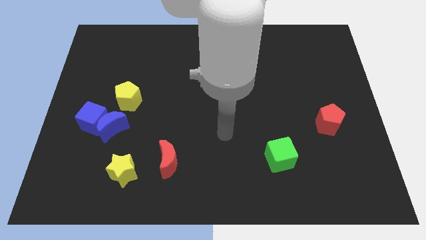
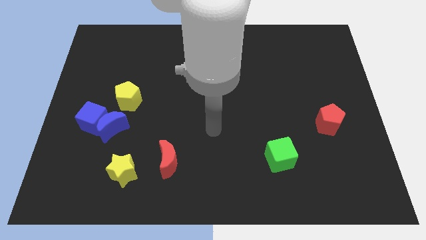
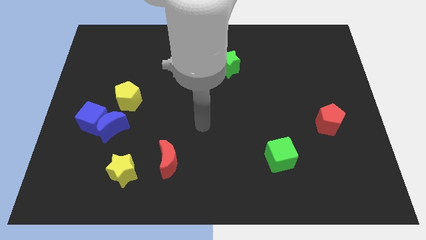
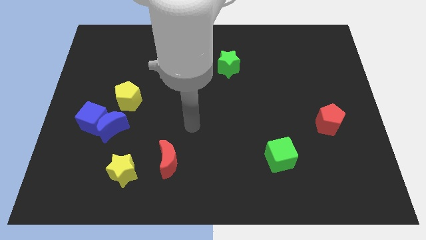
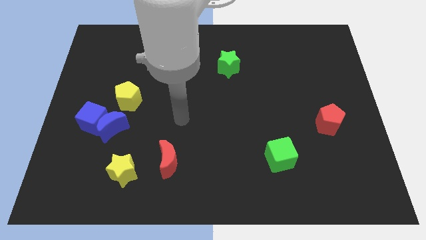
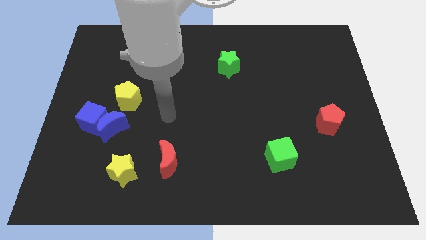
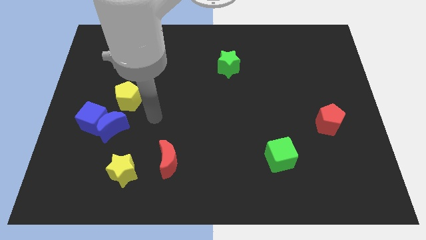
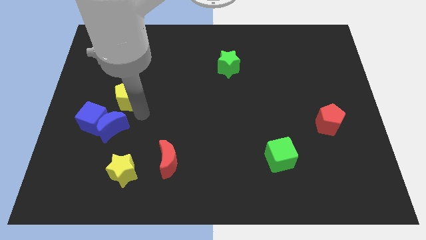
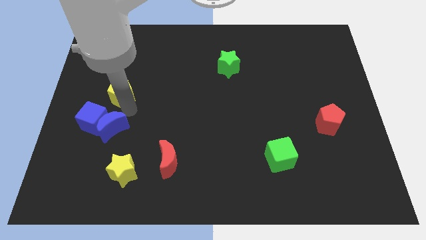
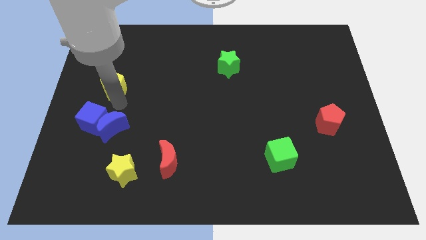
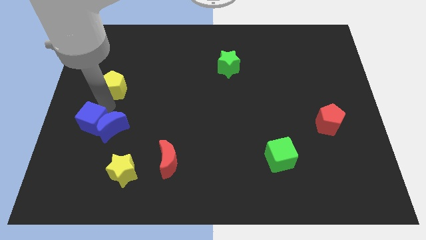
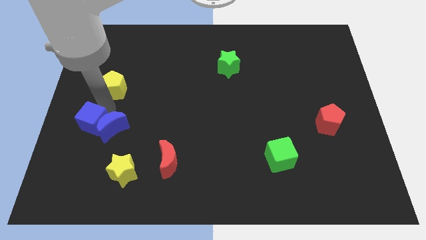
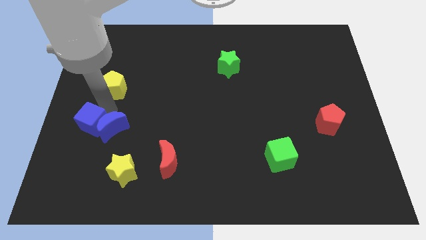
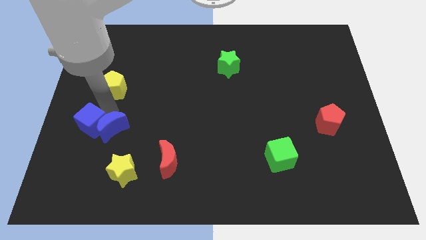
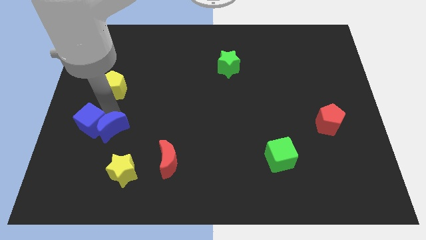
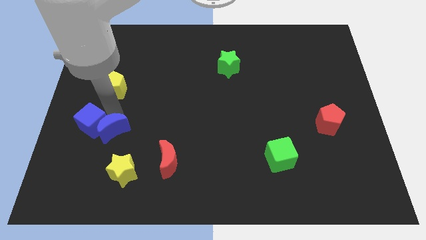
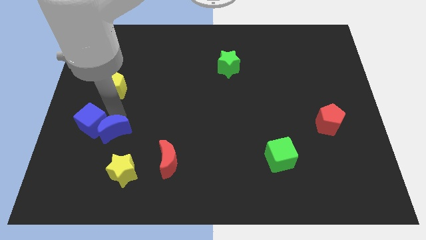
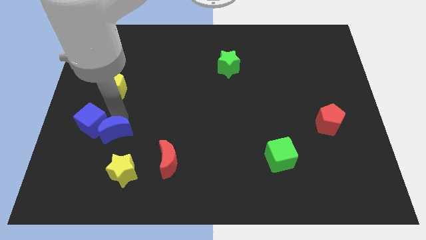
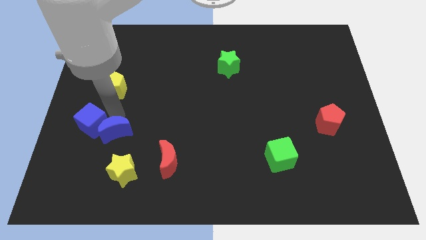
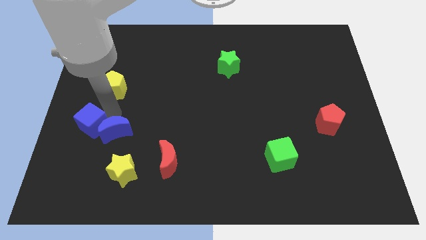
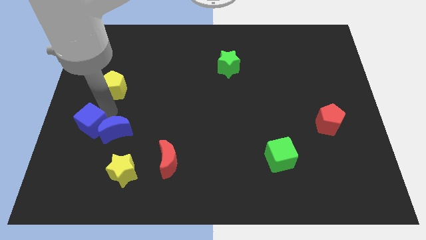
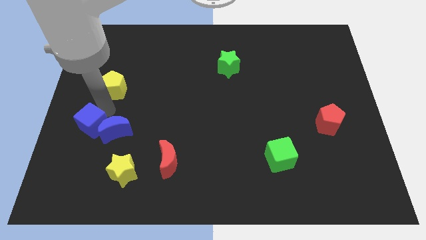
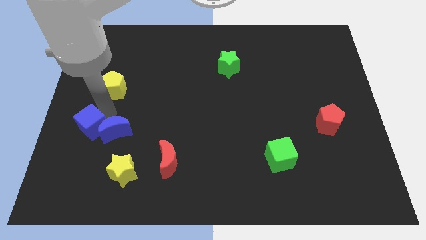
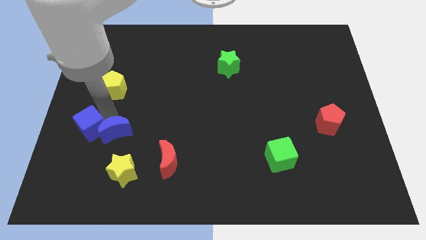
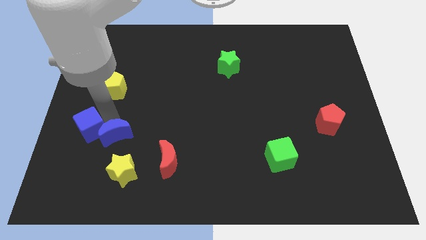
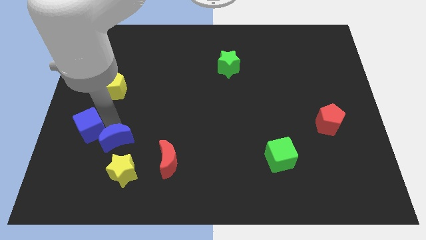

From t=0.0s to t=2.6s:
pull the blue moon apart from the blue cube and yellow pentagon

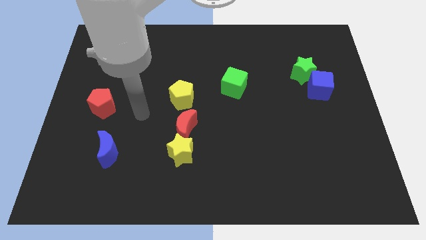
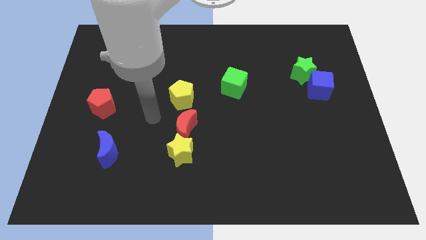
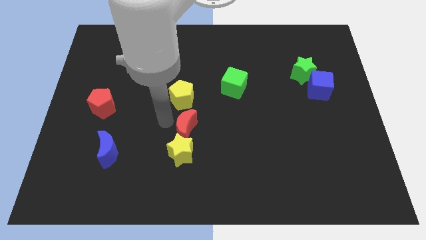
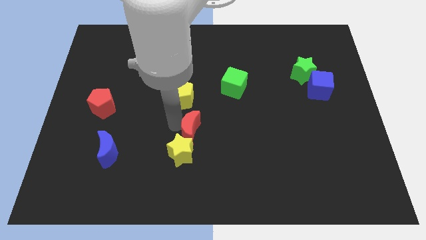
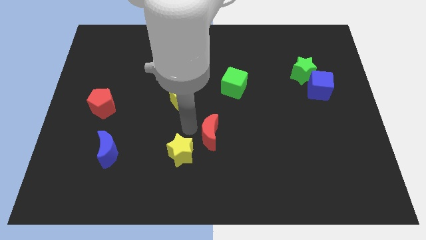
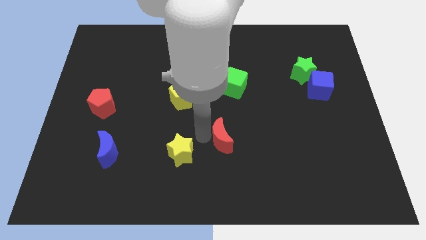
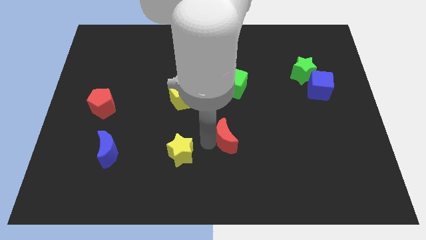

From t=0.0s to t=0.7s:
separate the yellow star from the red moon

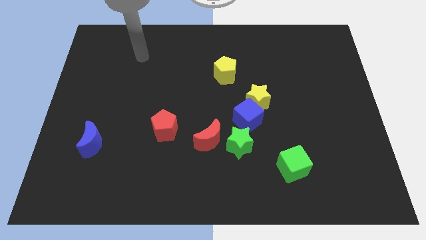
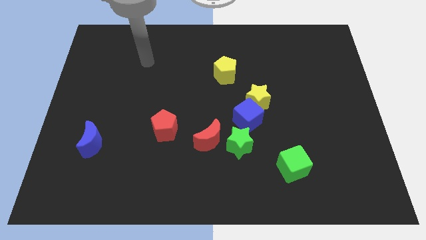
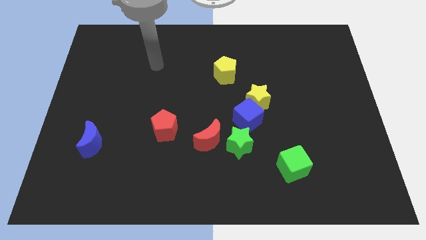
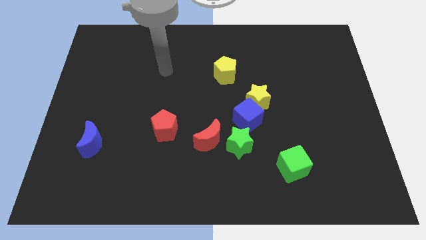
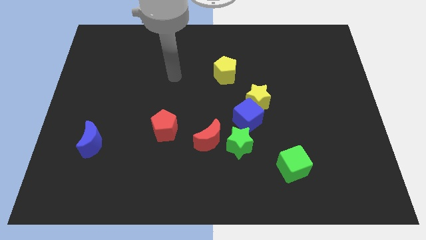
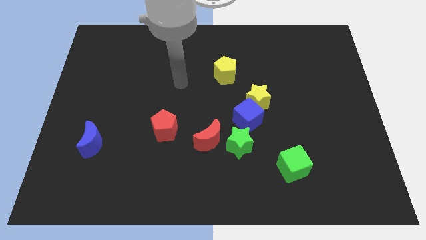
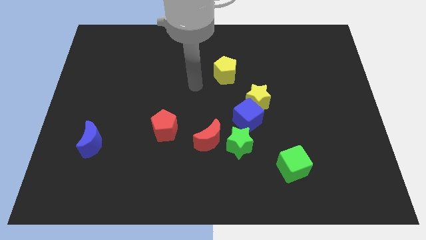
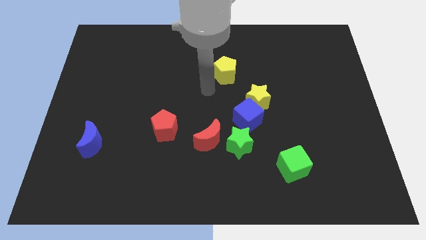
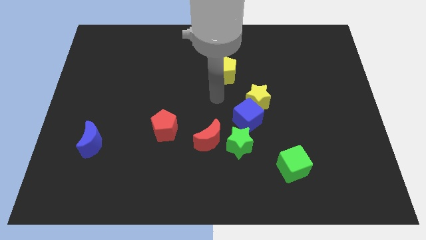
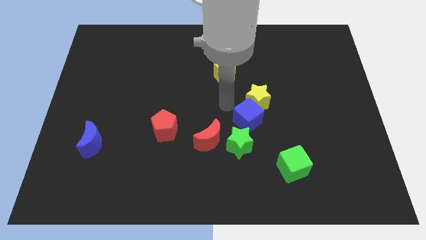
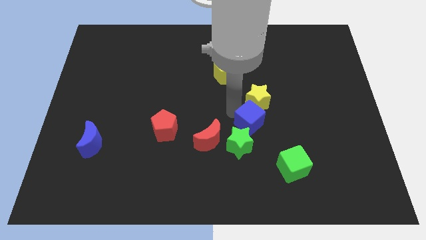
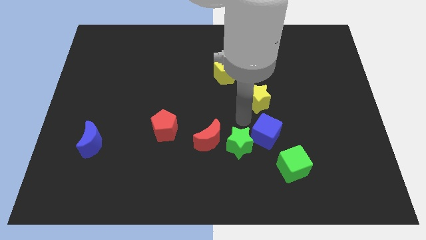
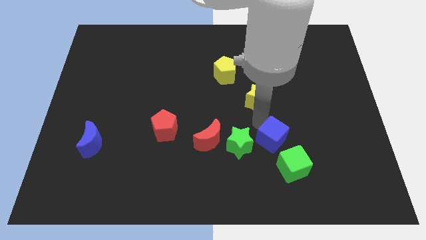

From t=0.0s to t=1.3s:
move the yellow star away from the blue cube

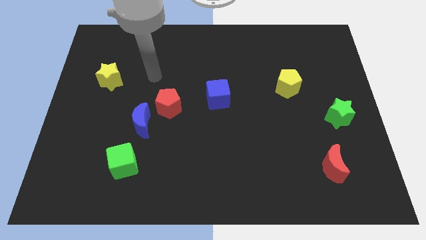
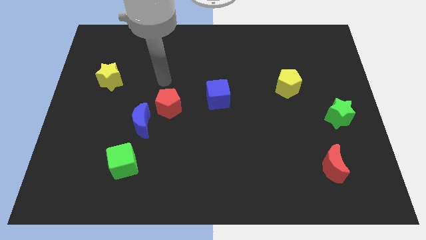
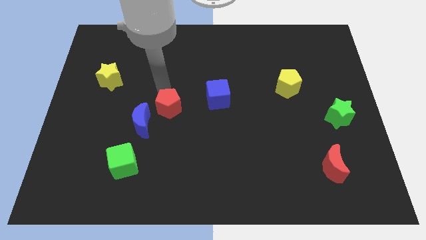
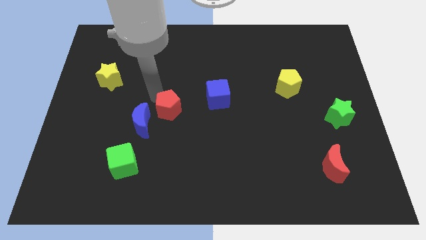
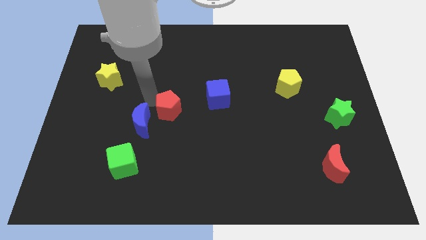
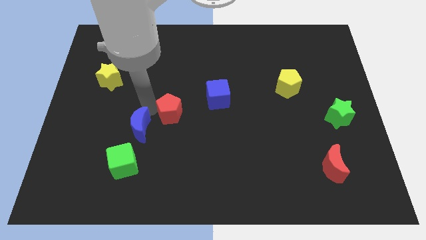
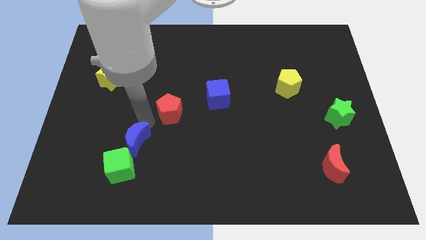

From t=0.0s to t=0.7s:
pull the red pentagon apart from the blue moon

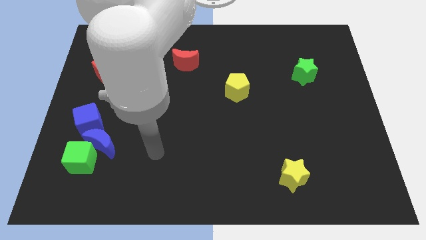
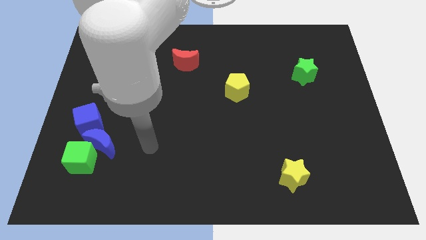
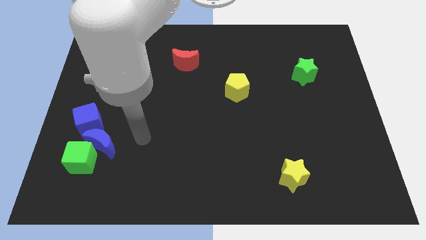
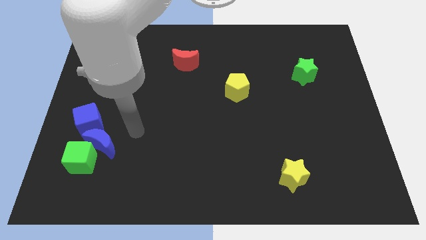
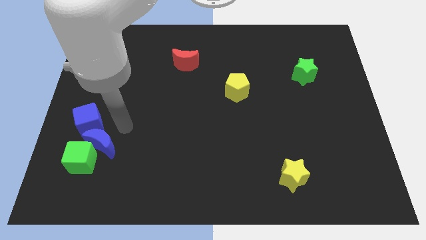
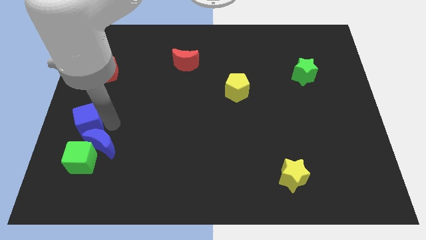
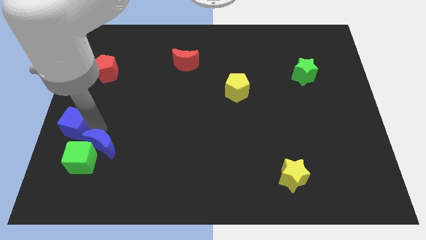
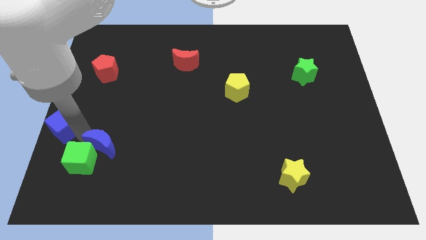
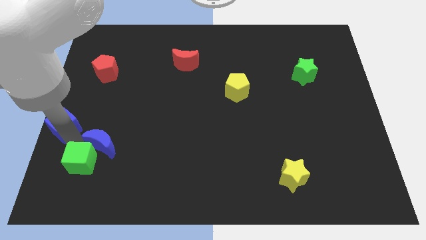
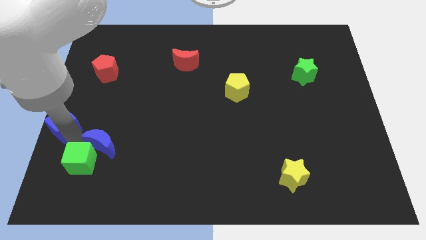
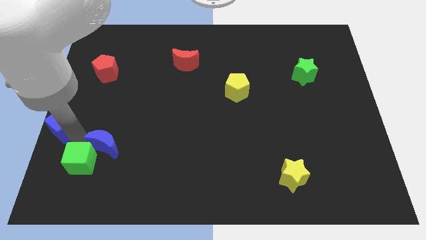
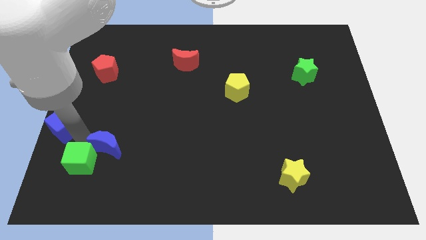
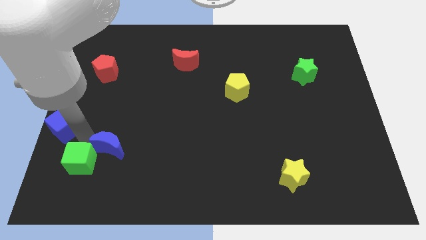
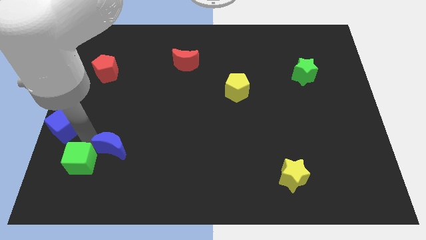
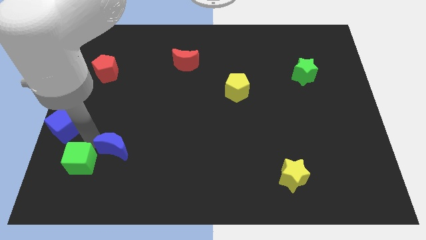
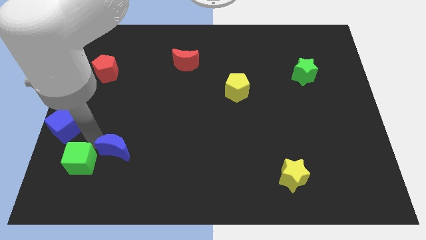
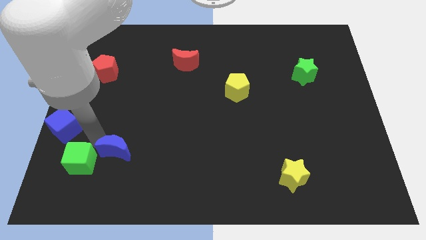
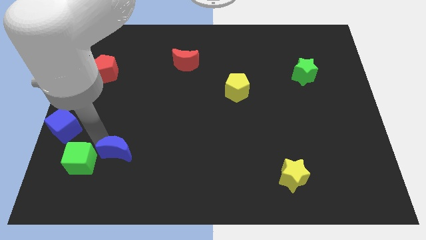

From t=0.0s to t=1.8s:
separate the blue moon from the green cube and blue cube

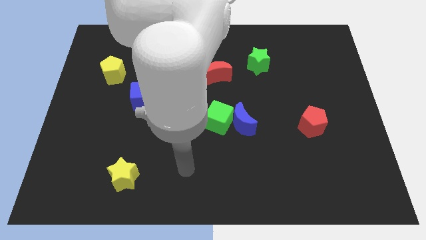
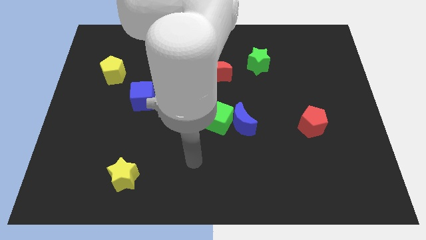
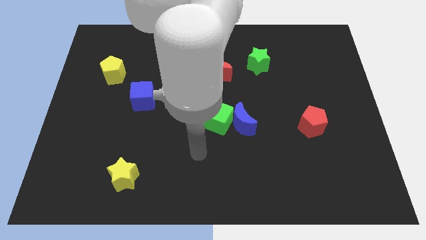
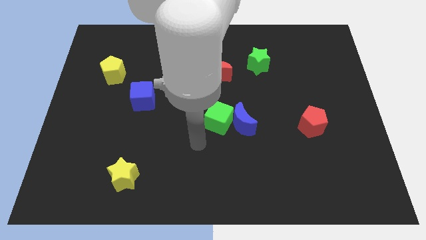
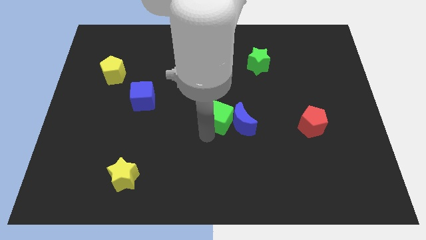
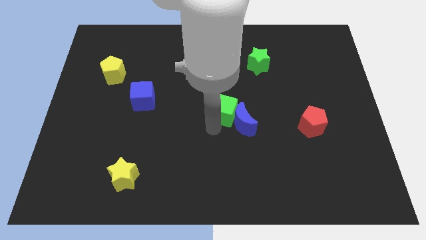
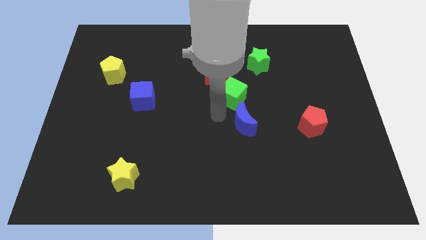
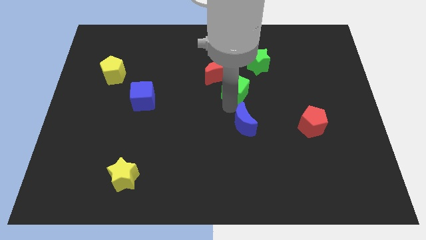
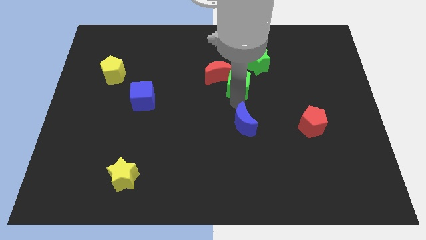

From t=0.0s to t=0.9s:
separate the blue moon from the green cube

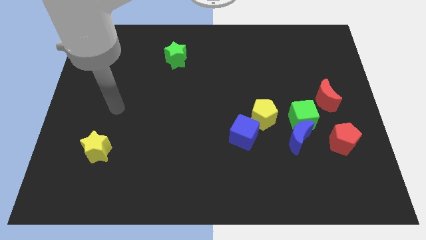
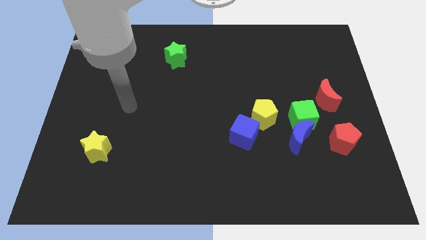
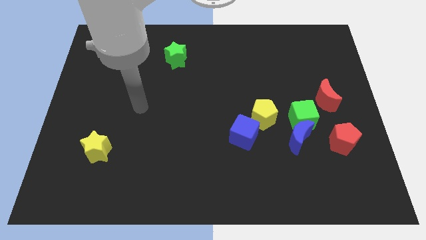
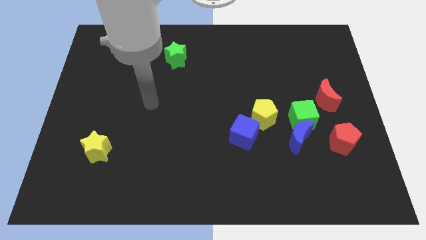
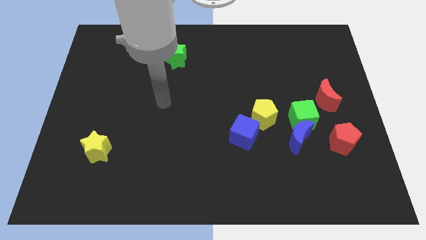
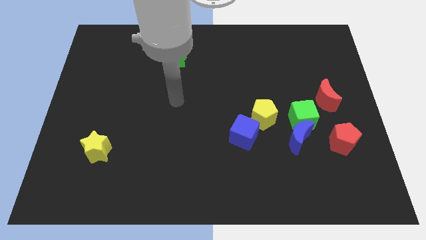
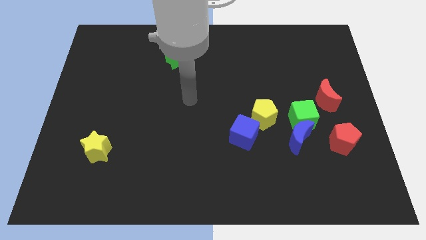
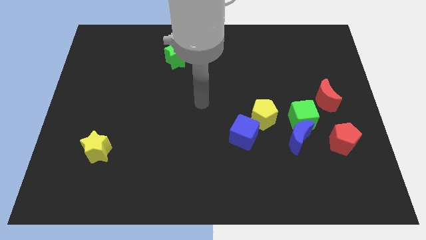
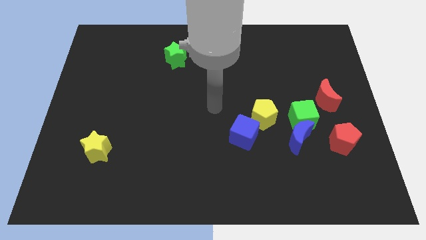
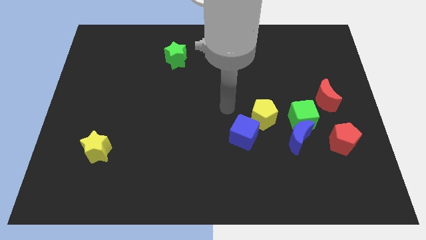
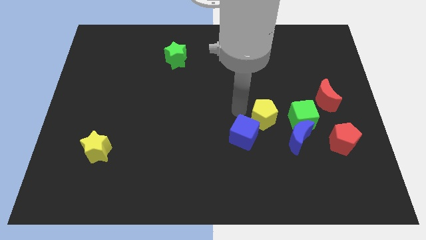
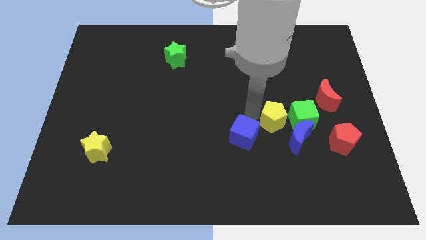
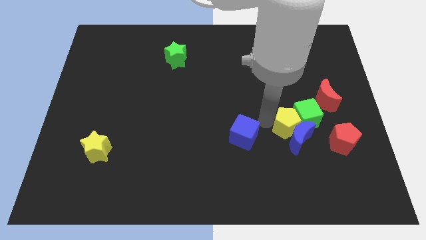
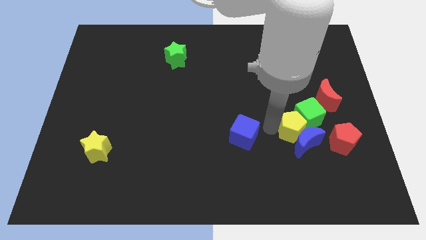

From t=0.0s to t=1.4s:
move the blue cube away from the yellow pentagon

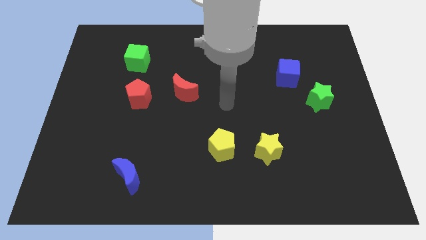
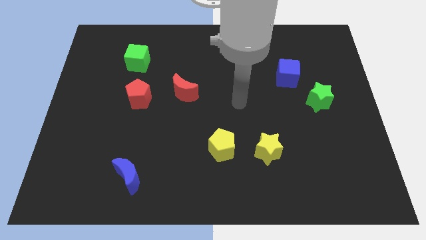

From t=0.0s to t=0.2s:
move the blue cube away from the green star
